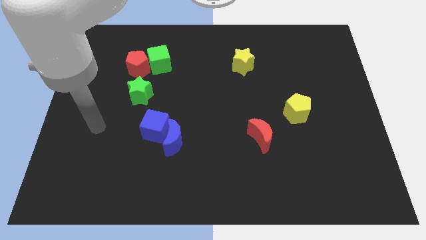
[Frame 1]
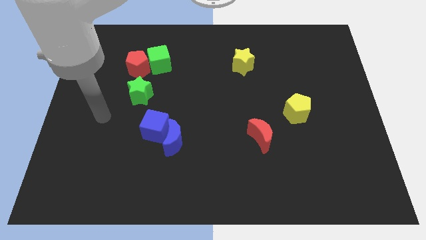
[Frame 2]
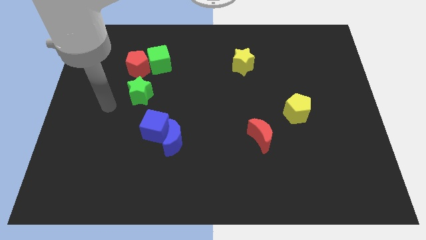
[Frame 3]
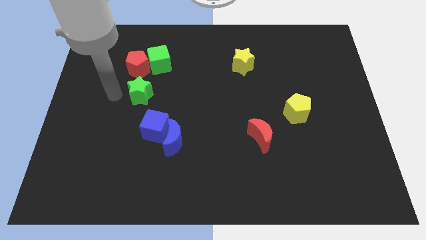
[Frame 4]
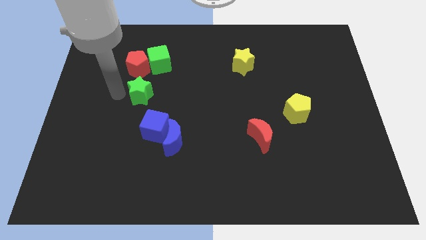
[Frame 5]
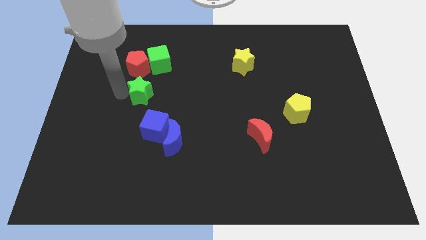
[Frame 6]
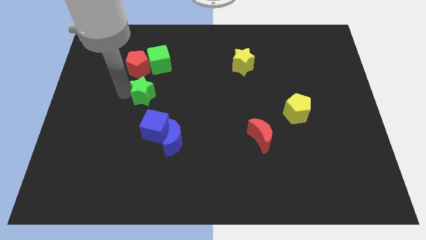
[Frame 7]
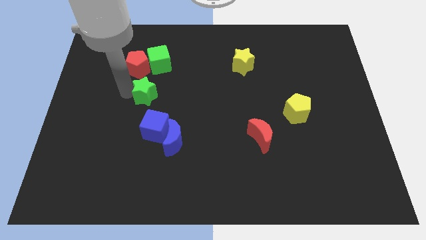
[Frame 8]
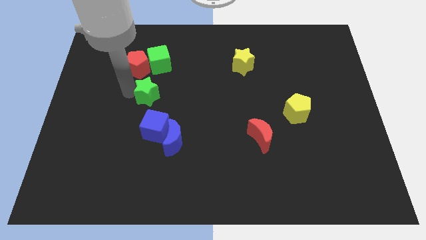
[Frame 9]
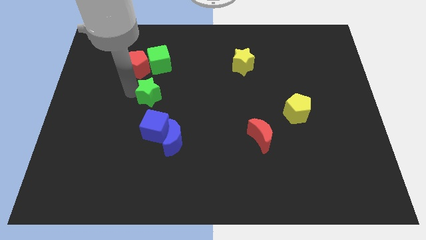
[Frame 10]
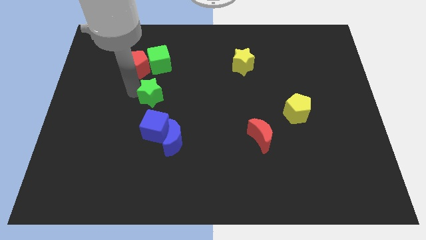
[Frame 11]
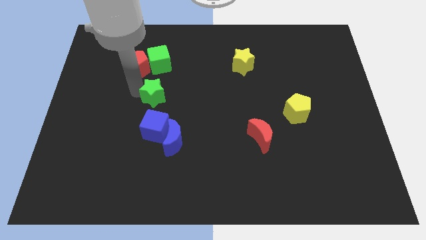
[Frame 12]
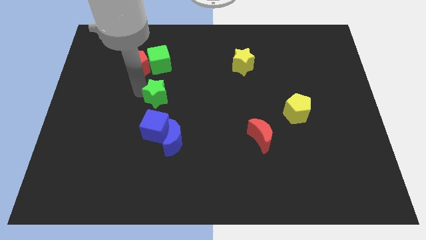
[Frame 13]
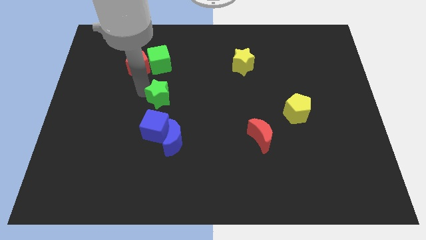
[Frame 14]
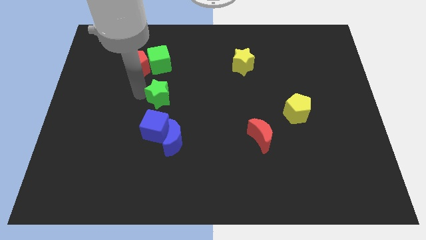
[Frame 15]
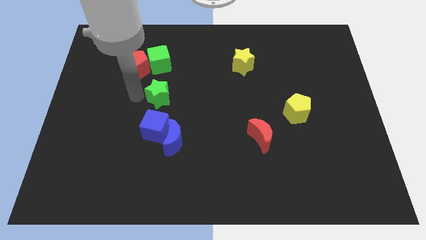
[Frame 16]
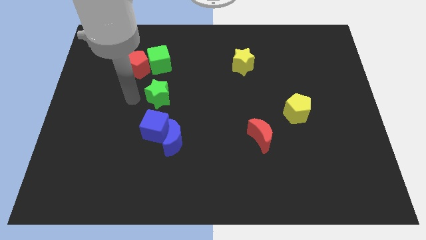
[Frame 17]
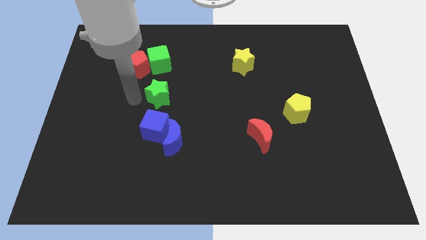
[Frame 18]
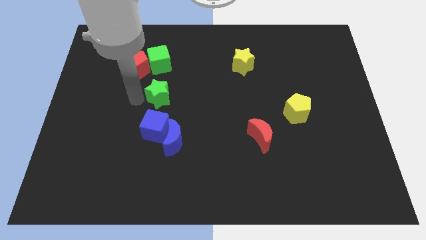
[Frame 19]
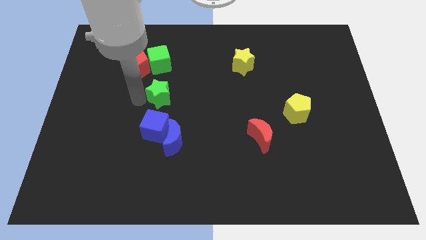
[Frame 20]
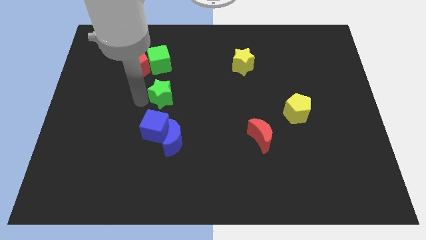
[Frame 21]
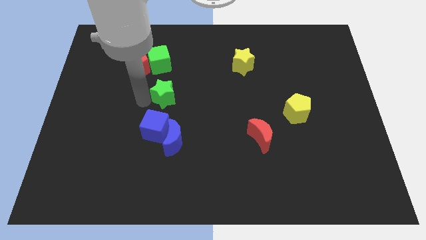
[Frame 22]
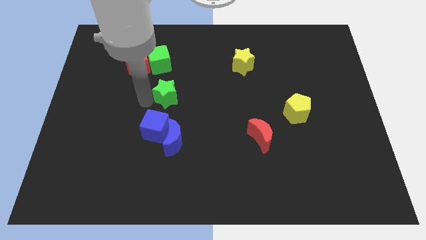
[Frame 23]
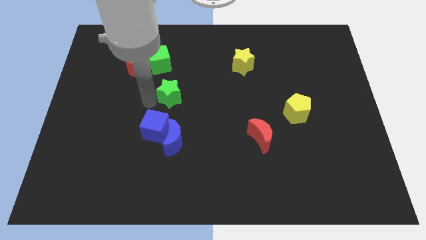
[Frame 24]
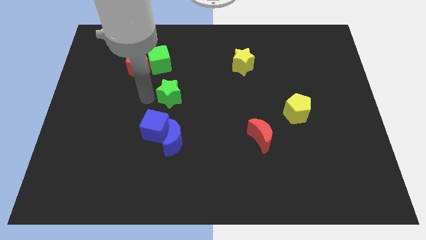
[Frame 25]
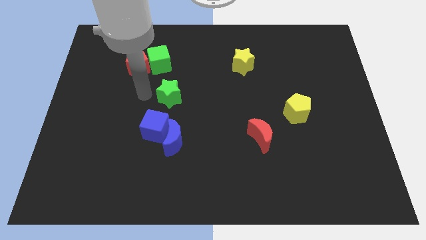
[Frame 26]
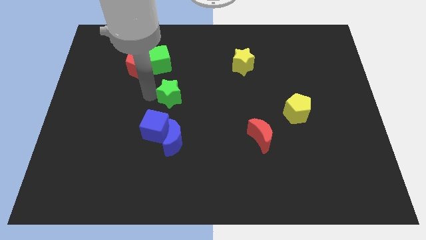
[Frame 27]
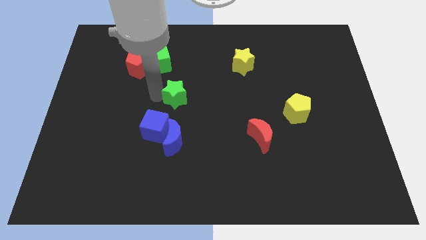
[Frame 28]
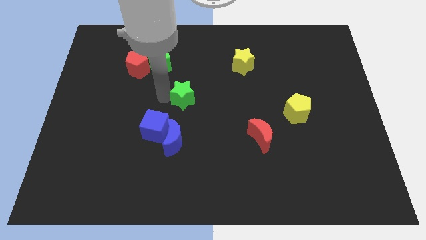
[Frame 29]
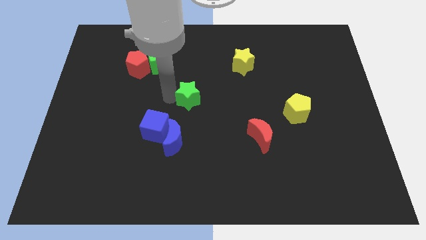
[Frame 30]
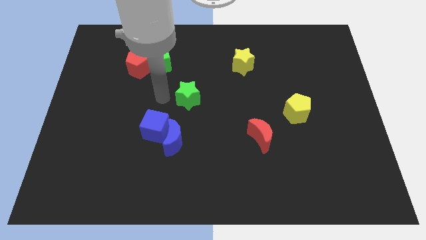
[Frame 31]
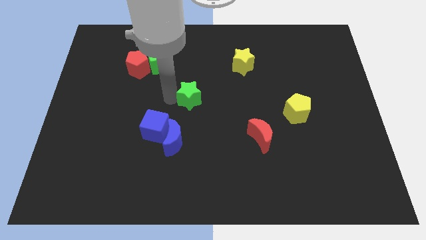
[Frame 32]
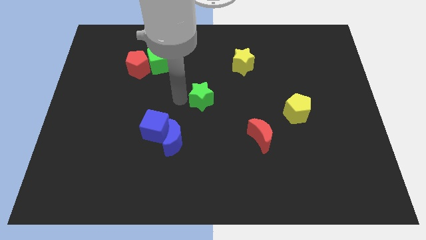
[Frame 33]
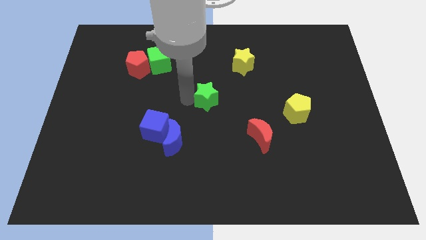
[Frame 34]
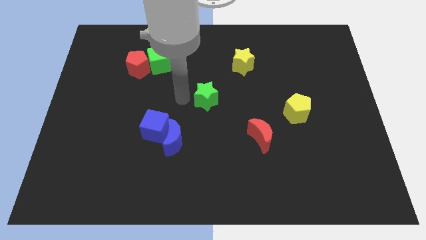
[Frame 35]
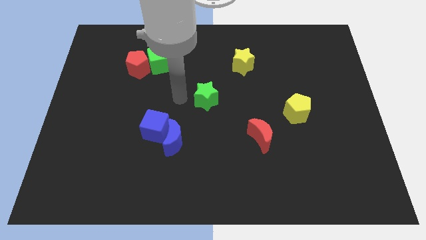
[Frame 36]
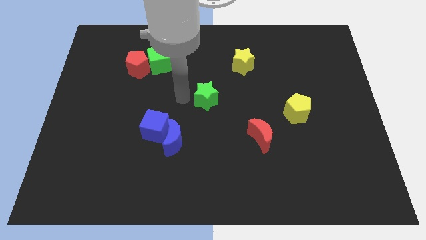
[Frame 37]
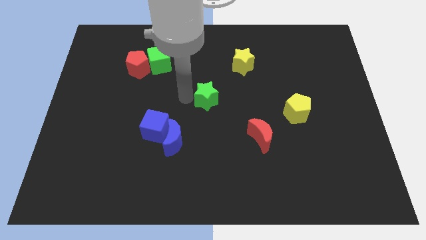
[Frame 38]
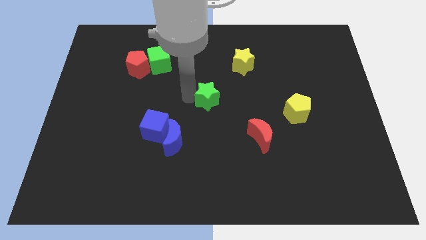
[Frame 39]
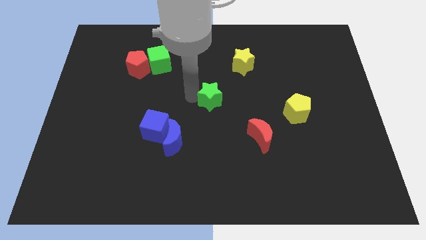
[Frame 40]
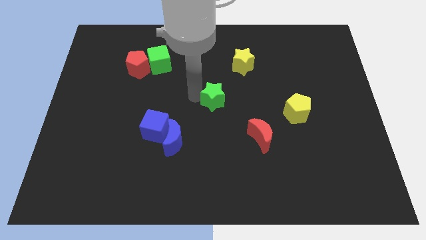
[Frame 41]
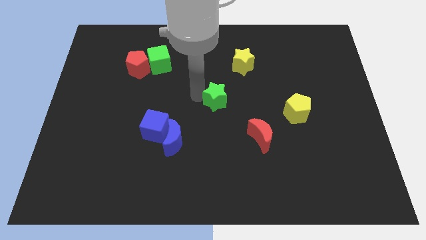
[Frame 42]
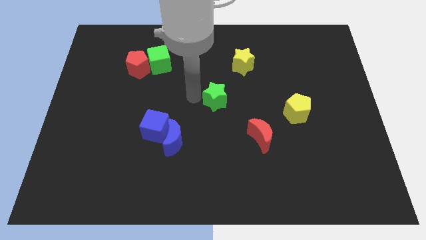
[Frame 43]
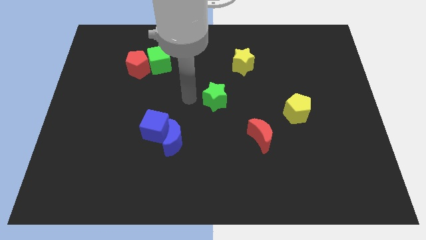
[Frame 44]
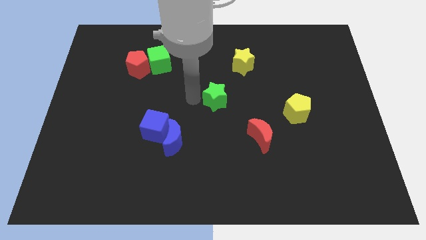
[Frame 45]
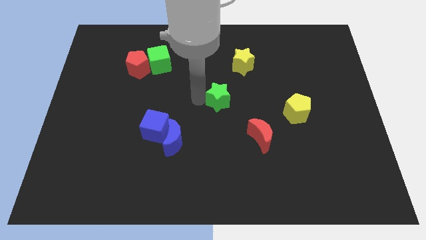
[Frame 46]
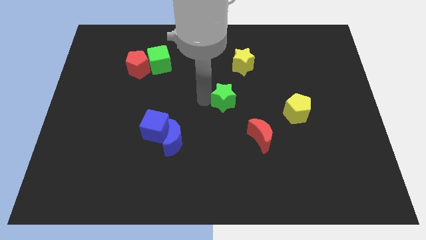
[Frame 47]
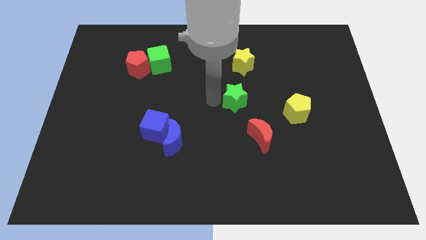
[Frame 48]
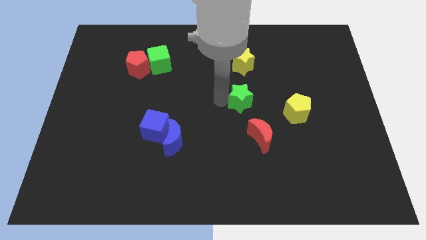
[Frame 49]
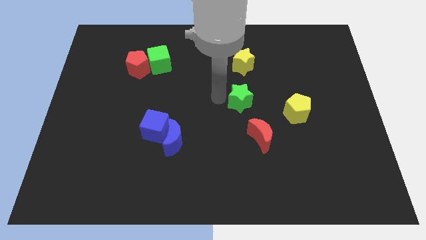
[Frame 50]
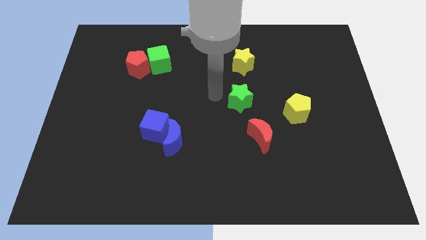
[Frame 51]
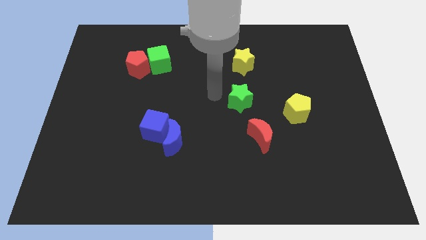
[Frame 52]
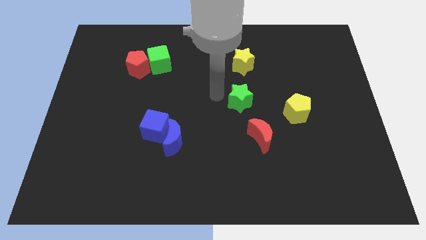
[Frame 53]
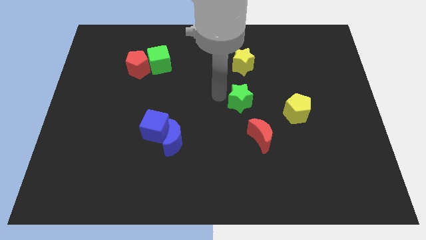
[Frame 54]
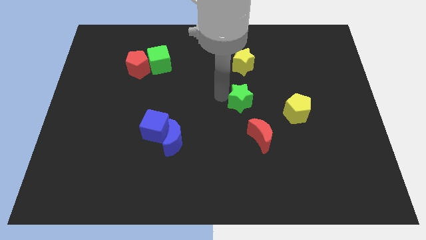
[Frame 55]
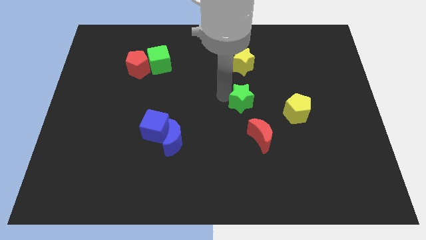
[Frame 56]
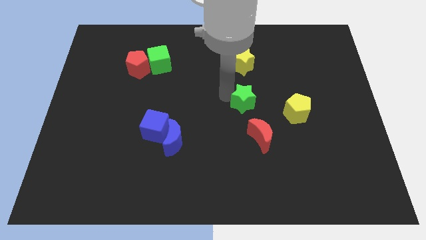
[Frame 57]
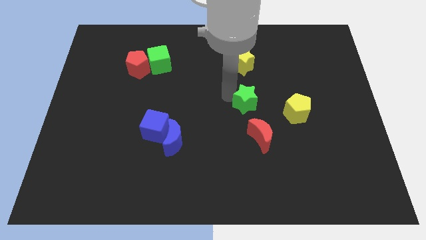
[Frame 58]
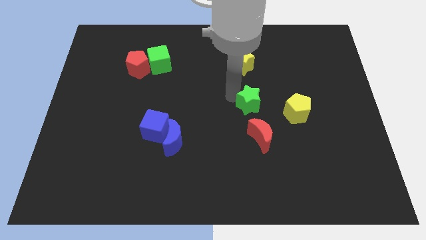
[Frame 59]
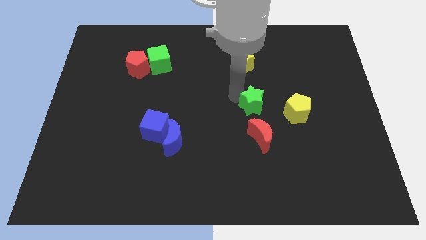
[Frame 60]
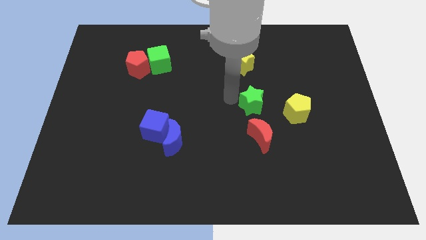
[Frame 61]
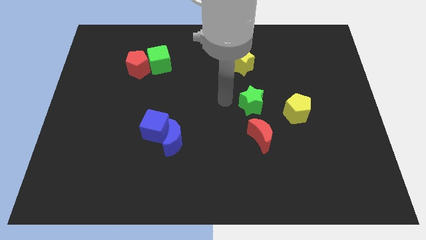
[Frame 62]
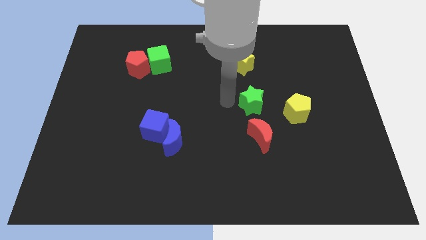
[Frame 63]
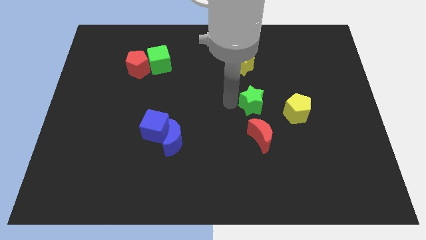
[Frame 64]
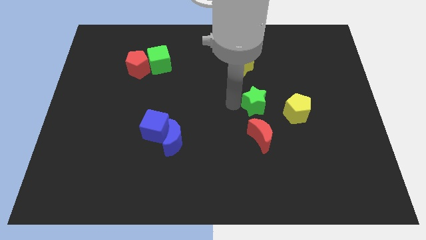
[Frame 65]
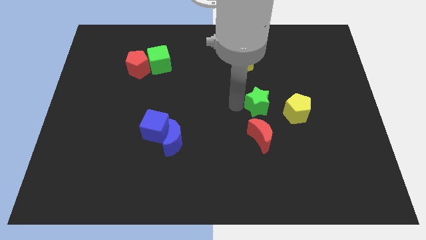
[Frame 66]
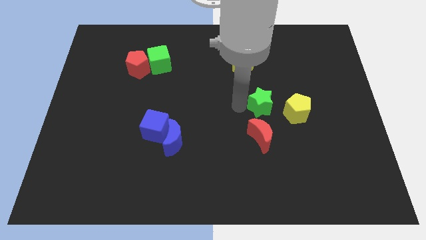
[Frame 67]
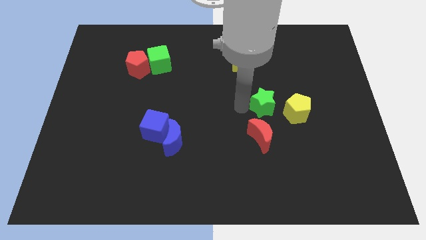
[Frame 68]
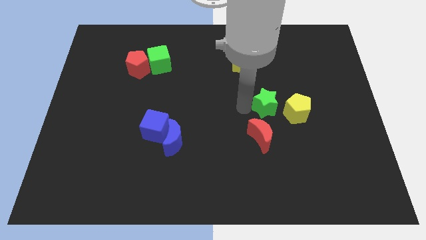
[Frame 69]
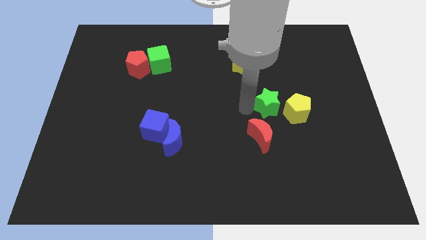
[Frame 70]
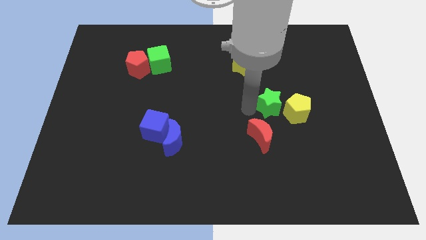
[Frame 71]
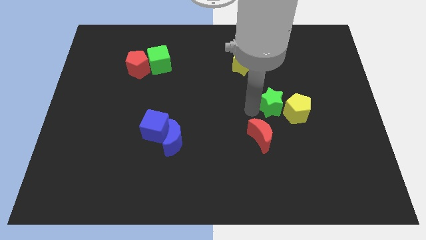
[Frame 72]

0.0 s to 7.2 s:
push the green star to the yellow pentagon
